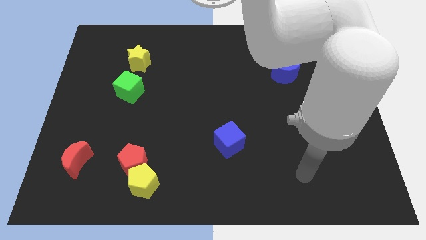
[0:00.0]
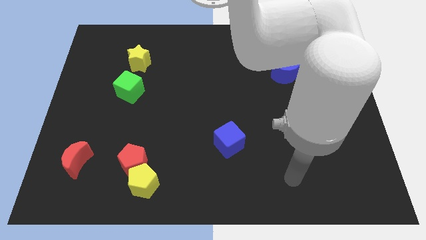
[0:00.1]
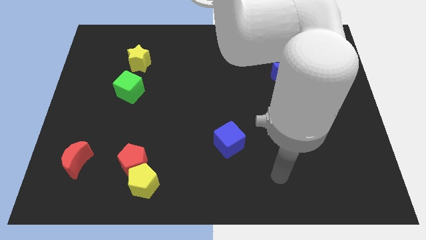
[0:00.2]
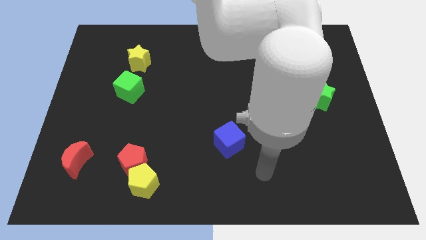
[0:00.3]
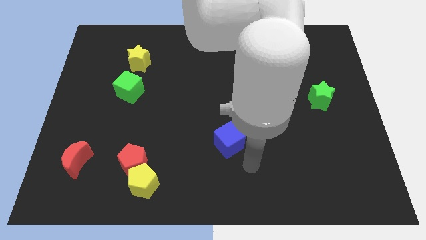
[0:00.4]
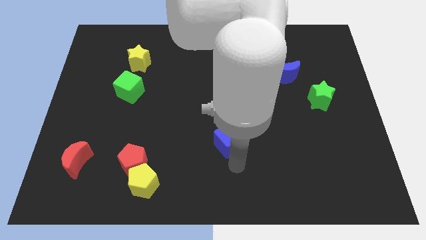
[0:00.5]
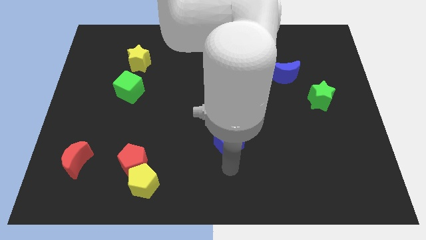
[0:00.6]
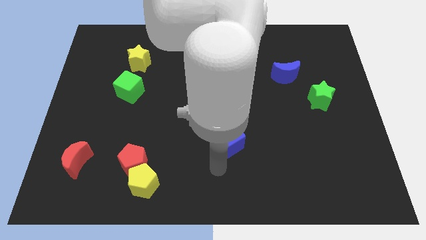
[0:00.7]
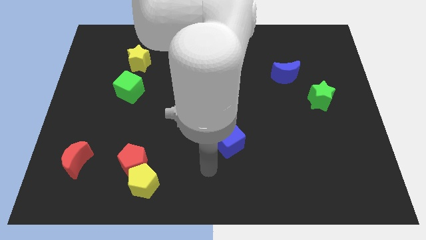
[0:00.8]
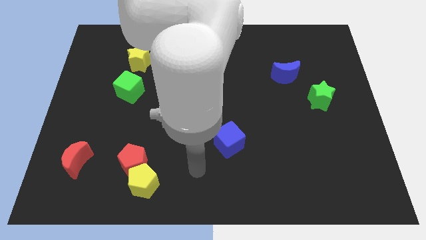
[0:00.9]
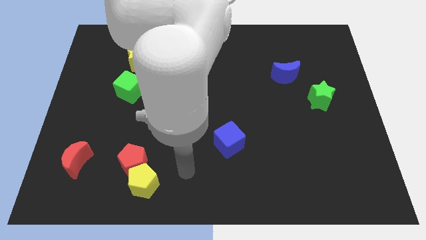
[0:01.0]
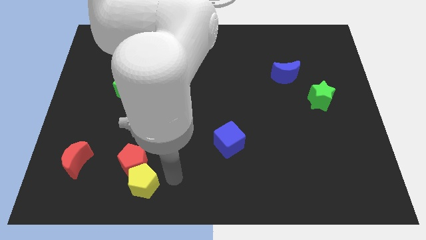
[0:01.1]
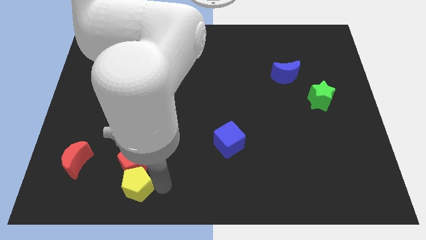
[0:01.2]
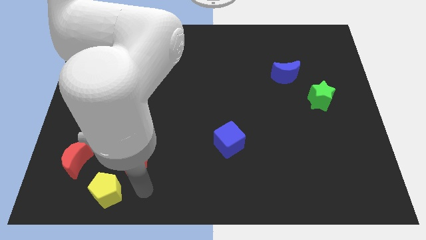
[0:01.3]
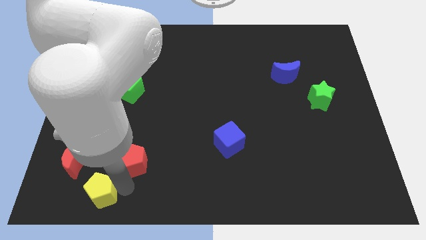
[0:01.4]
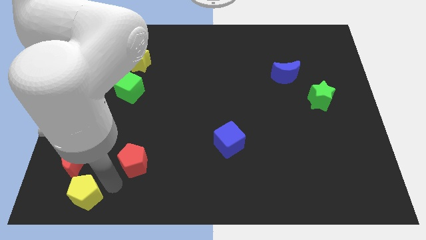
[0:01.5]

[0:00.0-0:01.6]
separate the red pentagon from the yellow pentagon

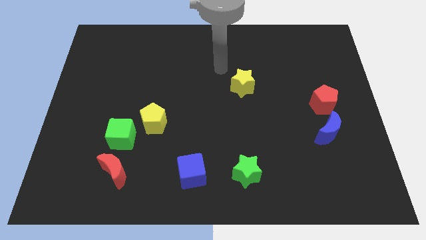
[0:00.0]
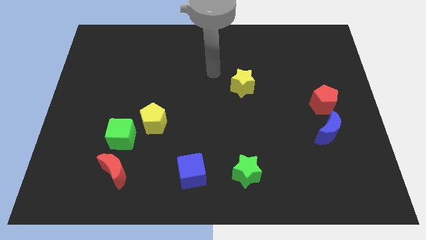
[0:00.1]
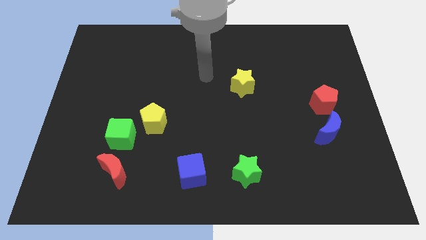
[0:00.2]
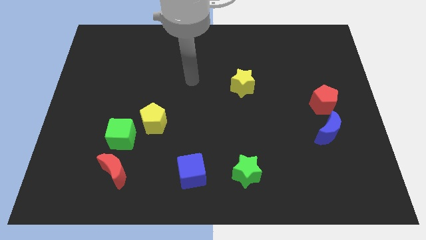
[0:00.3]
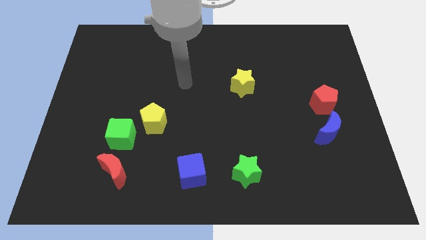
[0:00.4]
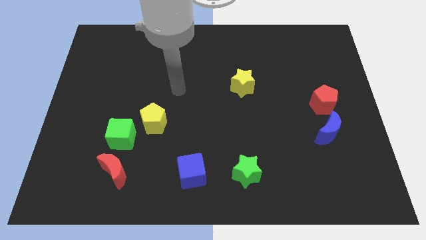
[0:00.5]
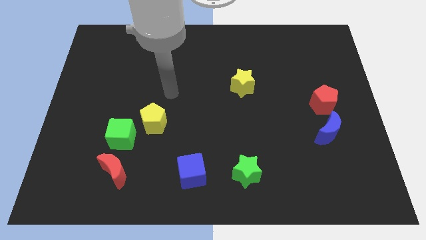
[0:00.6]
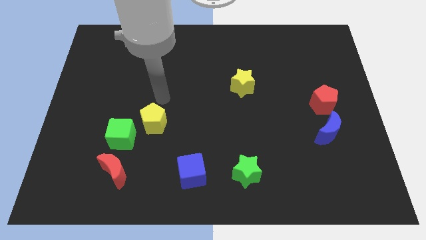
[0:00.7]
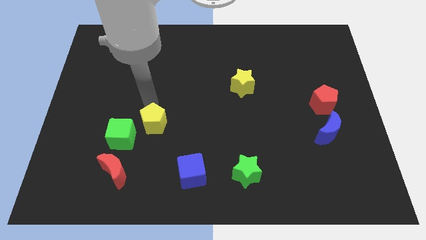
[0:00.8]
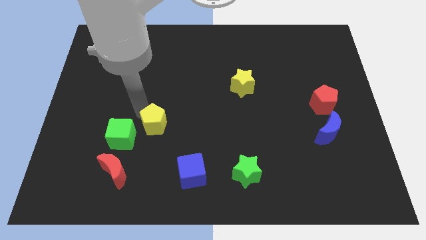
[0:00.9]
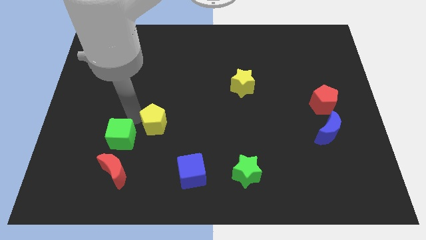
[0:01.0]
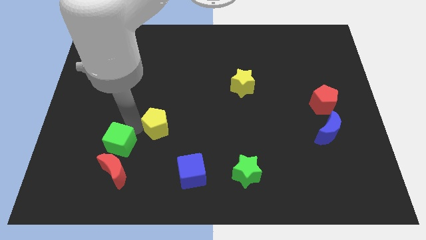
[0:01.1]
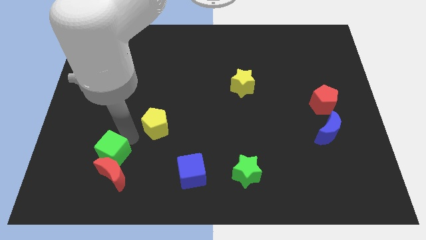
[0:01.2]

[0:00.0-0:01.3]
move the yellow pentagon away from the green cube

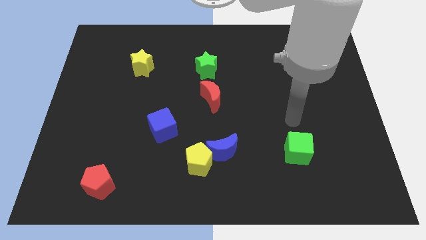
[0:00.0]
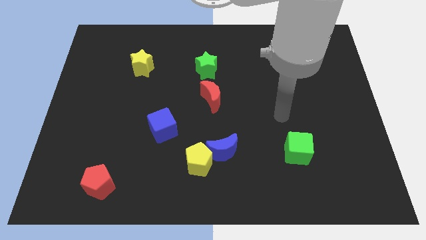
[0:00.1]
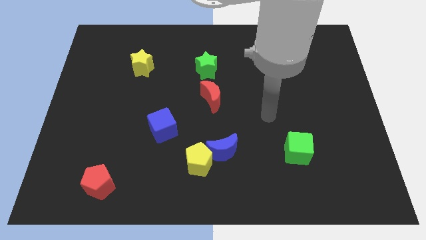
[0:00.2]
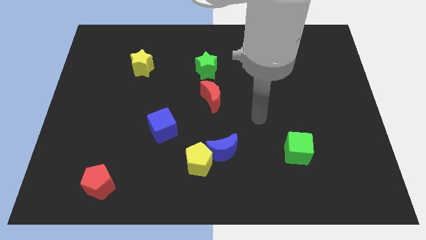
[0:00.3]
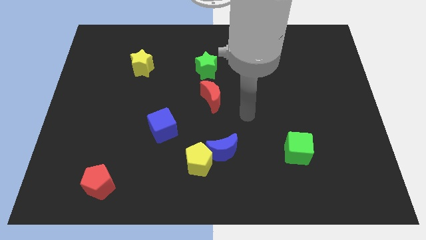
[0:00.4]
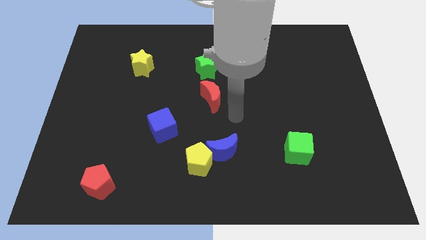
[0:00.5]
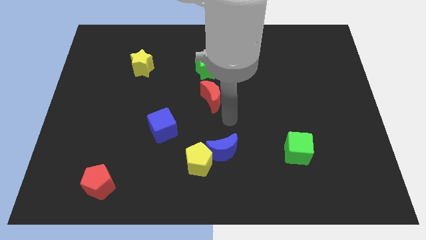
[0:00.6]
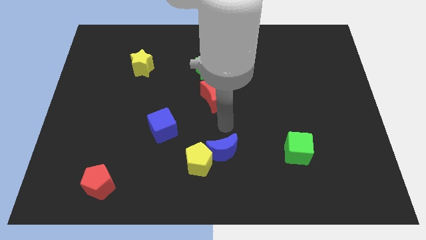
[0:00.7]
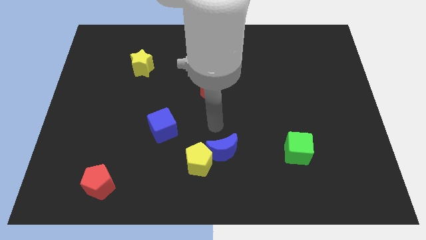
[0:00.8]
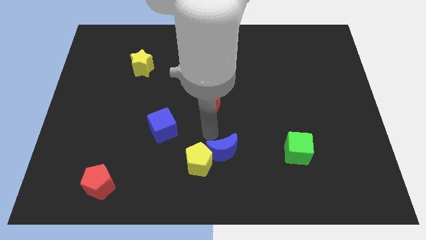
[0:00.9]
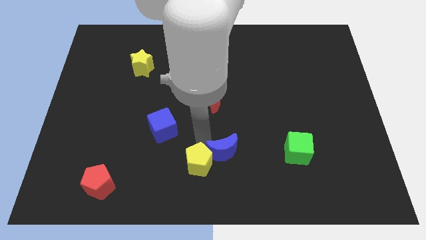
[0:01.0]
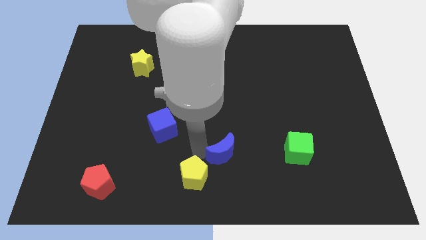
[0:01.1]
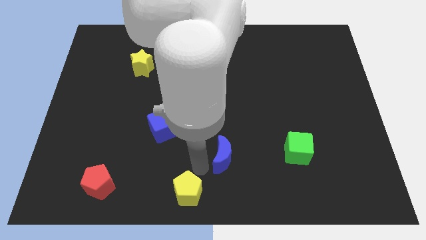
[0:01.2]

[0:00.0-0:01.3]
separate the blue moon from the yellow pentagon

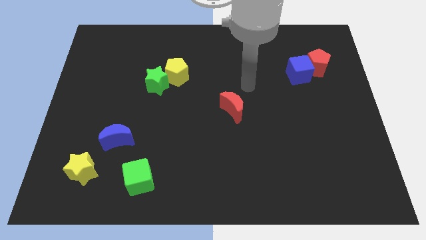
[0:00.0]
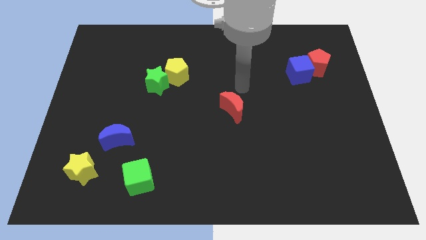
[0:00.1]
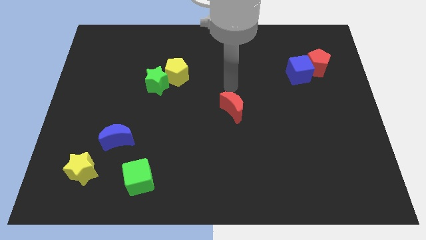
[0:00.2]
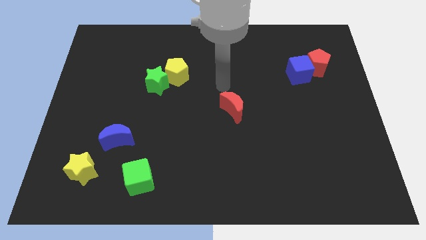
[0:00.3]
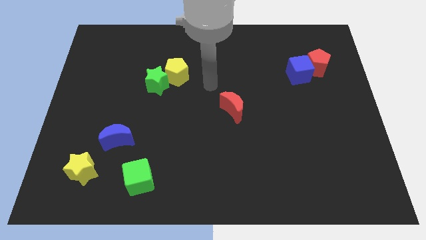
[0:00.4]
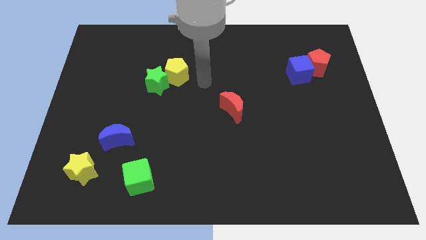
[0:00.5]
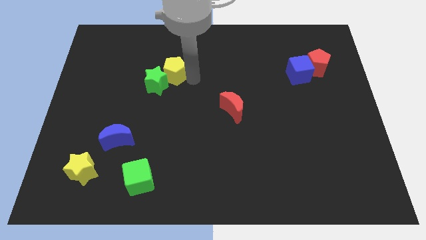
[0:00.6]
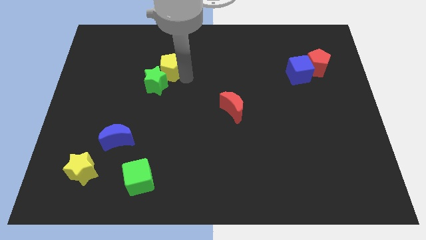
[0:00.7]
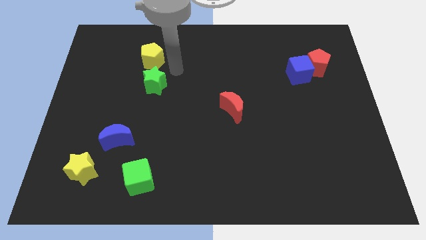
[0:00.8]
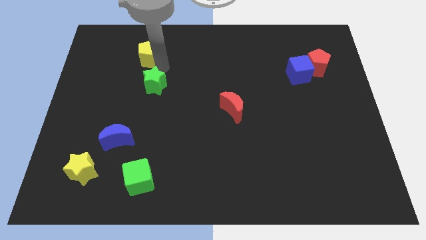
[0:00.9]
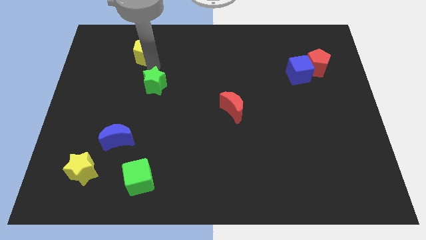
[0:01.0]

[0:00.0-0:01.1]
pull the green star apart from the yellow pentagon

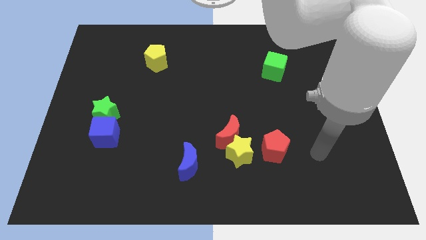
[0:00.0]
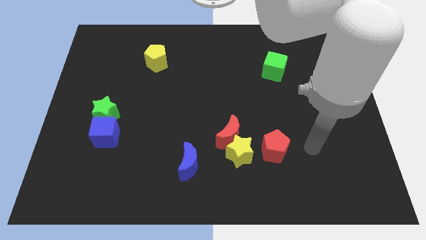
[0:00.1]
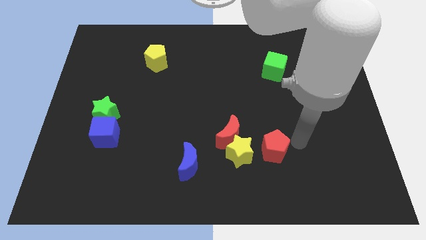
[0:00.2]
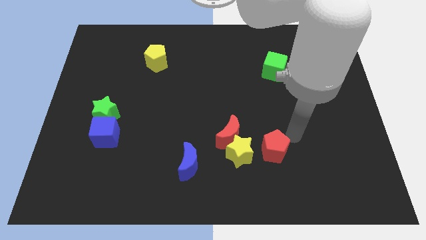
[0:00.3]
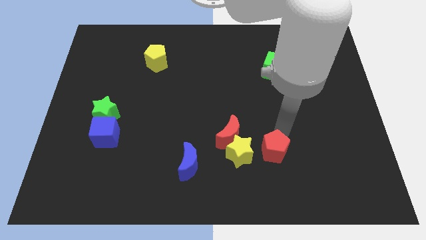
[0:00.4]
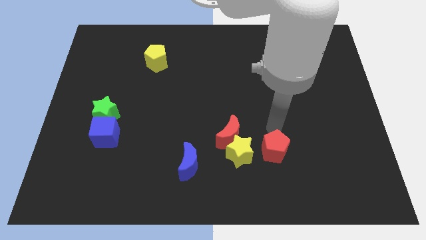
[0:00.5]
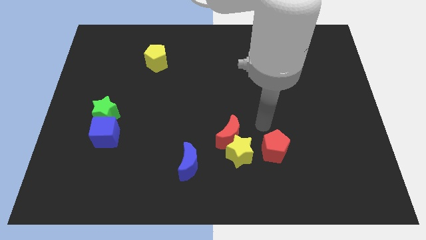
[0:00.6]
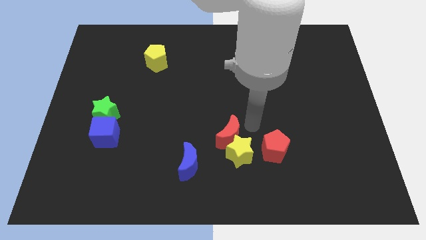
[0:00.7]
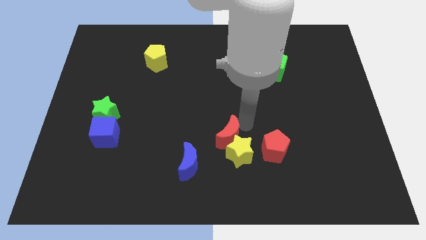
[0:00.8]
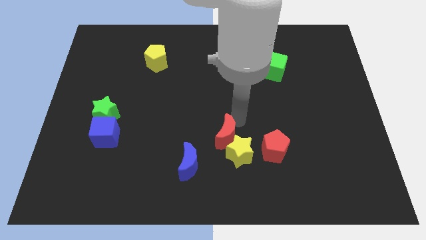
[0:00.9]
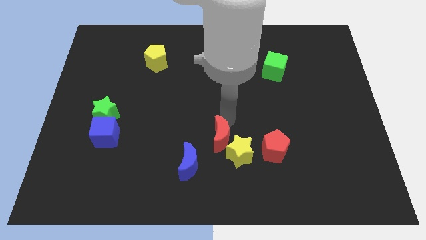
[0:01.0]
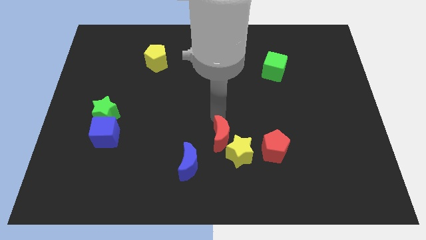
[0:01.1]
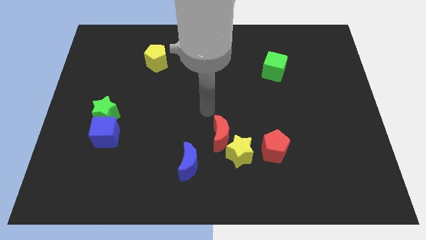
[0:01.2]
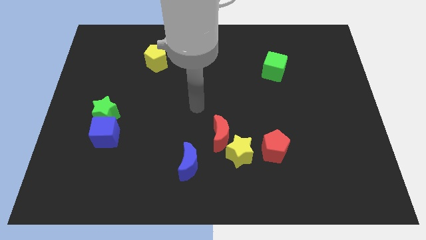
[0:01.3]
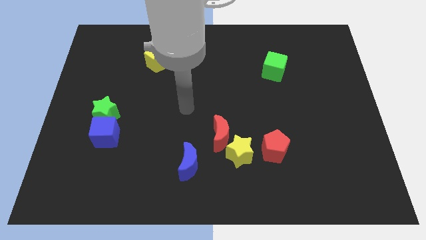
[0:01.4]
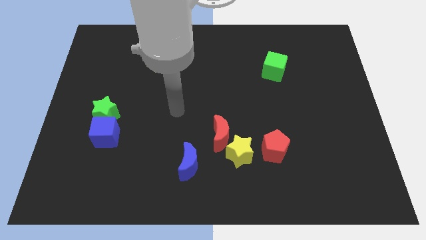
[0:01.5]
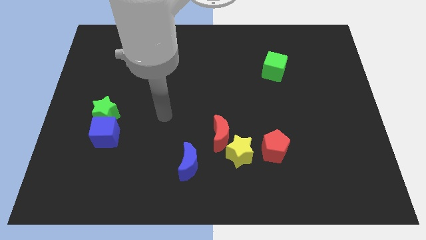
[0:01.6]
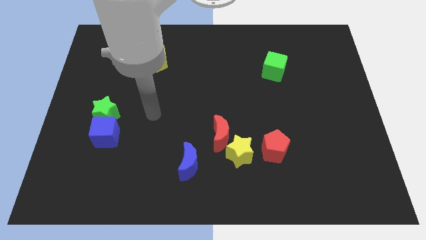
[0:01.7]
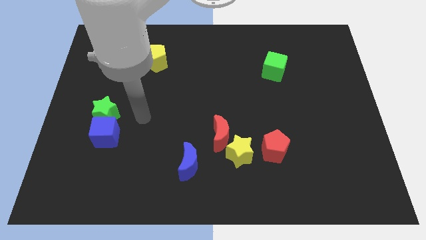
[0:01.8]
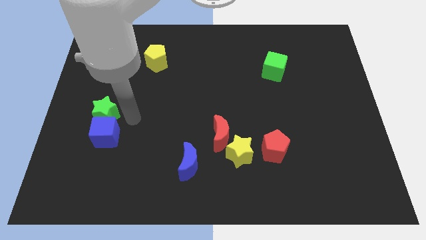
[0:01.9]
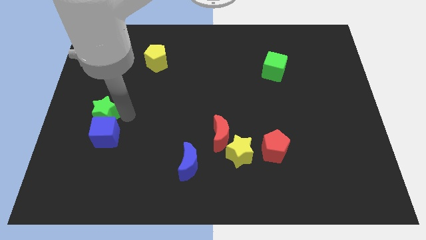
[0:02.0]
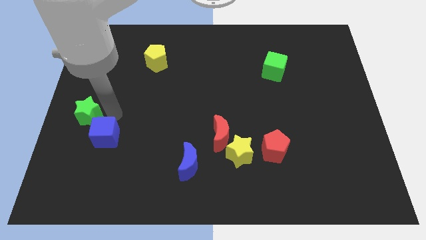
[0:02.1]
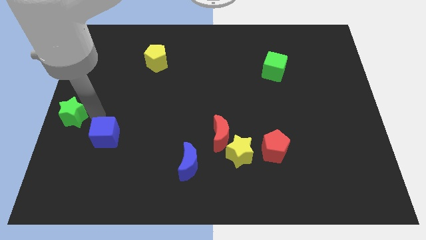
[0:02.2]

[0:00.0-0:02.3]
move the blue cube away from the green star

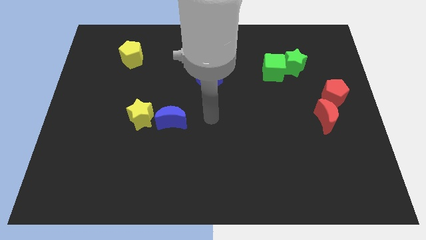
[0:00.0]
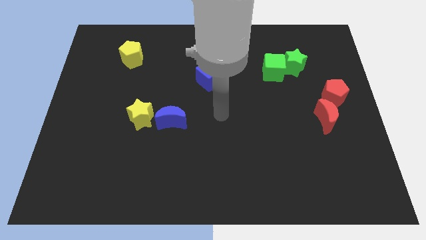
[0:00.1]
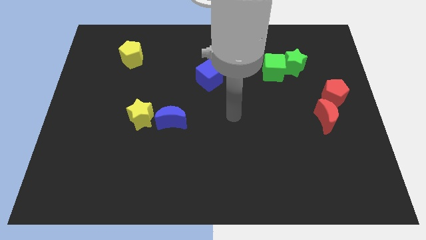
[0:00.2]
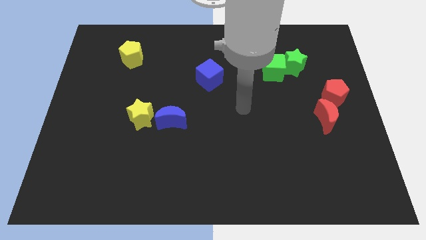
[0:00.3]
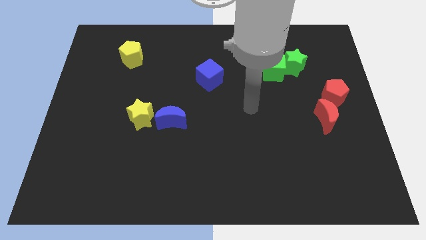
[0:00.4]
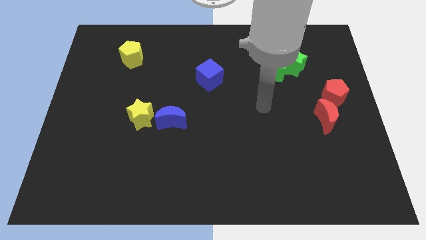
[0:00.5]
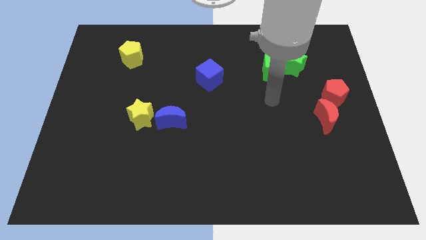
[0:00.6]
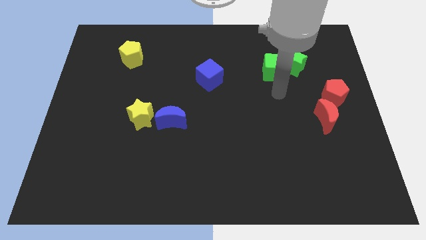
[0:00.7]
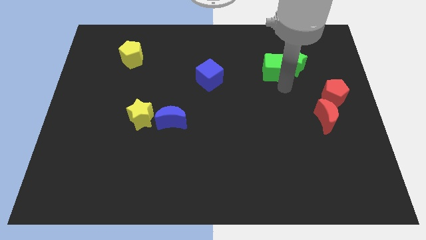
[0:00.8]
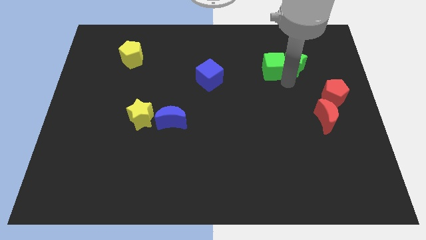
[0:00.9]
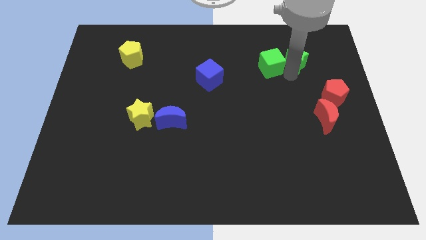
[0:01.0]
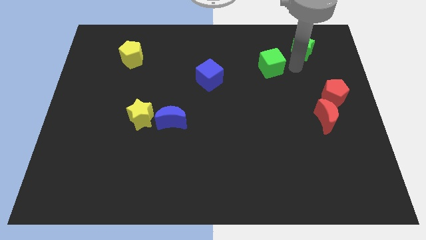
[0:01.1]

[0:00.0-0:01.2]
separate the green cube from the green star

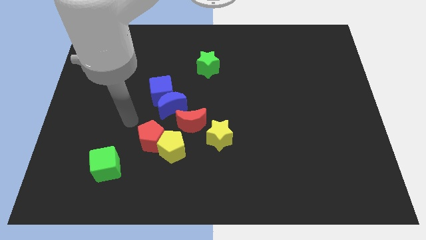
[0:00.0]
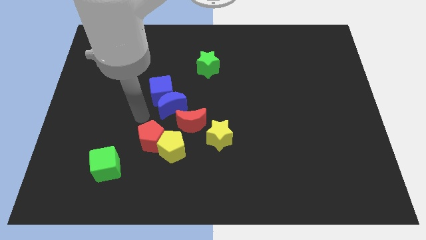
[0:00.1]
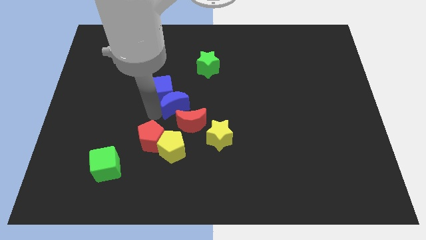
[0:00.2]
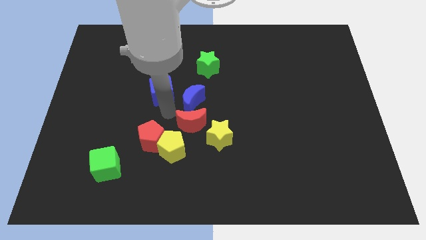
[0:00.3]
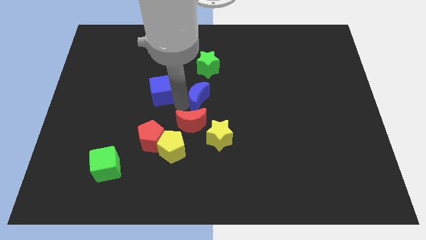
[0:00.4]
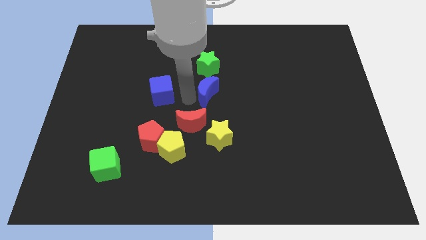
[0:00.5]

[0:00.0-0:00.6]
separate the blue cube from the blue moon
